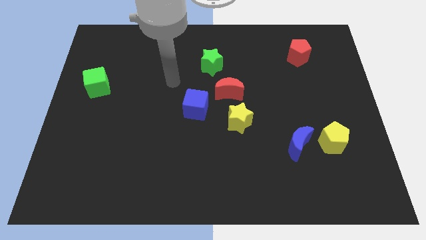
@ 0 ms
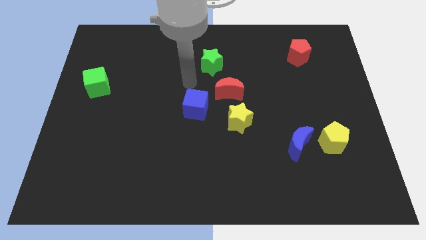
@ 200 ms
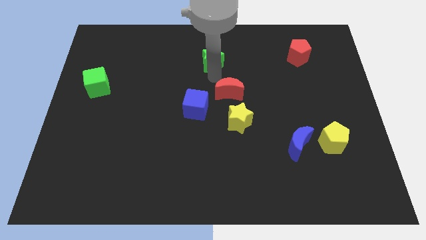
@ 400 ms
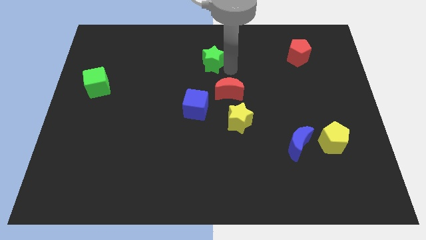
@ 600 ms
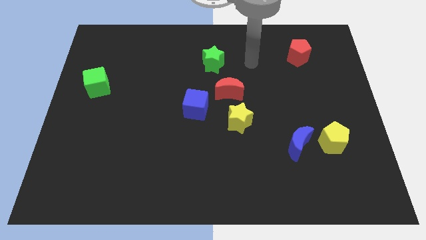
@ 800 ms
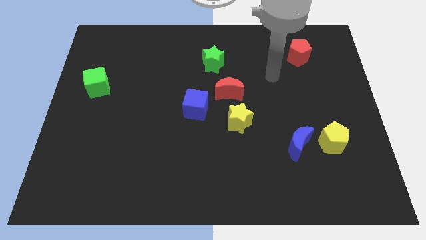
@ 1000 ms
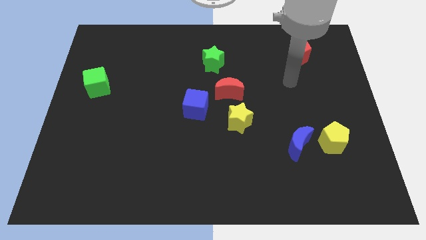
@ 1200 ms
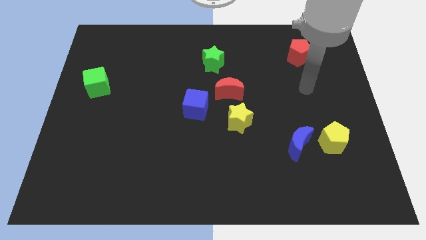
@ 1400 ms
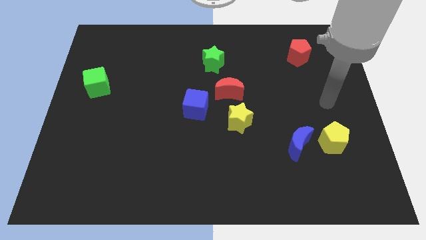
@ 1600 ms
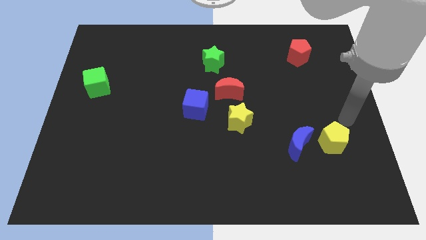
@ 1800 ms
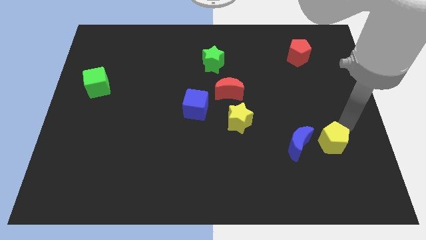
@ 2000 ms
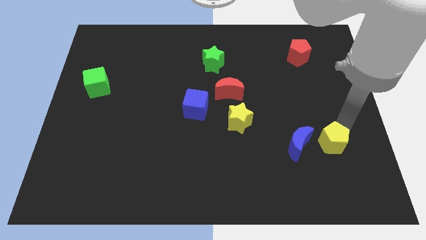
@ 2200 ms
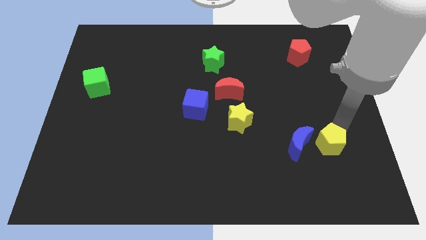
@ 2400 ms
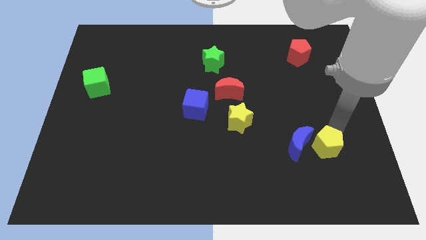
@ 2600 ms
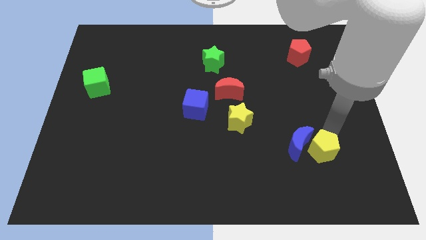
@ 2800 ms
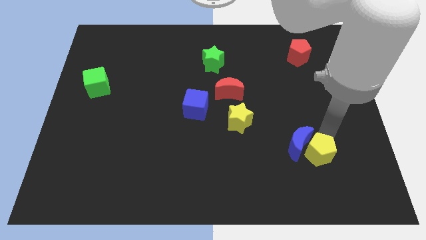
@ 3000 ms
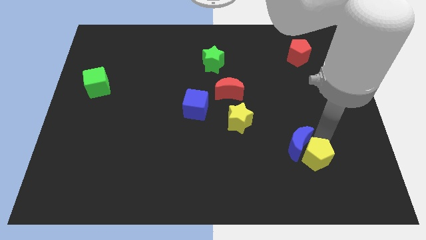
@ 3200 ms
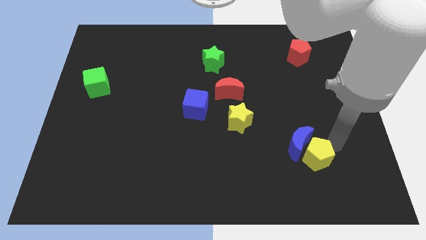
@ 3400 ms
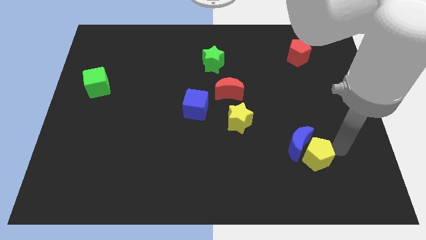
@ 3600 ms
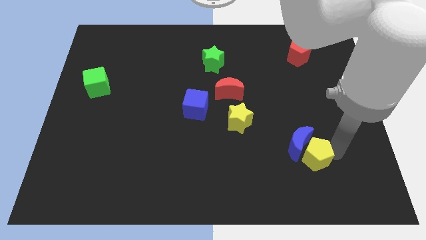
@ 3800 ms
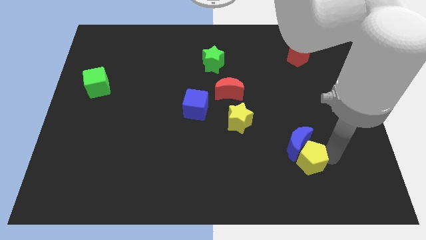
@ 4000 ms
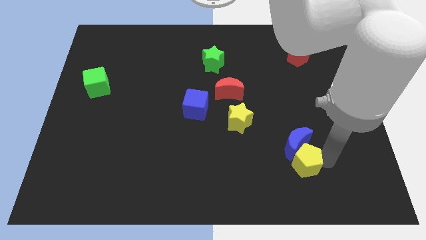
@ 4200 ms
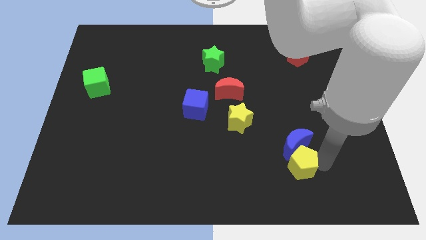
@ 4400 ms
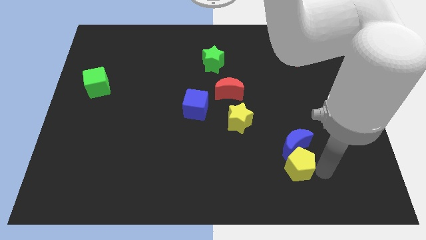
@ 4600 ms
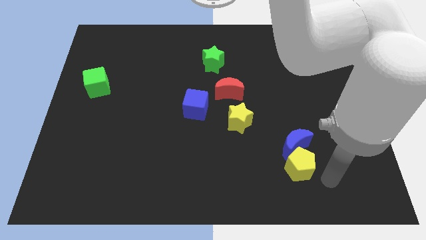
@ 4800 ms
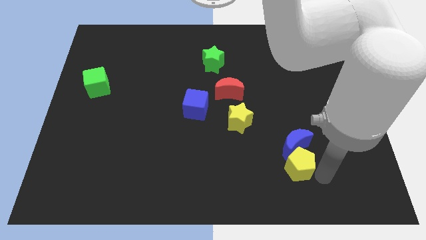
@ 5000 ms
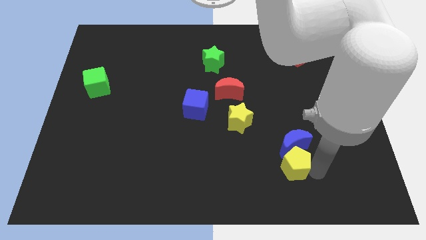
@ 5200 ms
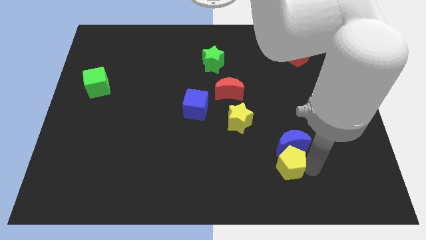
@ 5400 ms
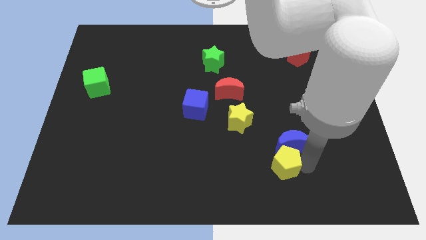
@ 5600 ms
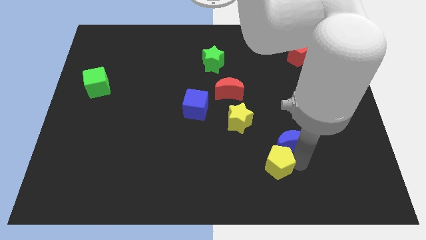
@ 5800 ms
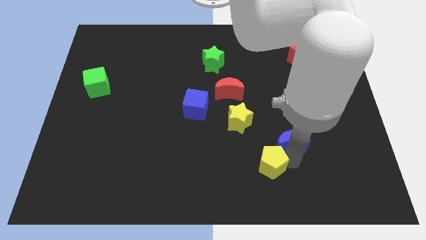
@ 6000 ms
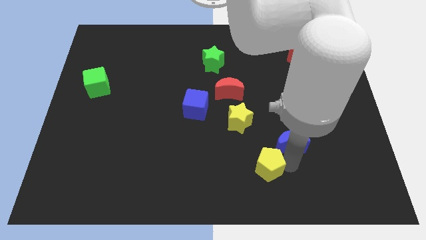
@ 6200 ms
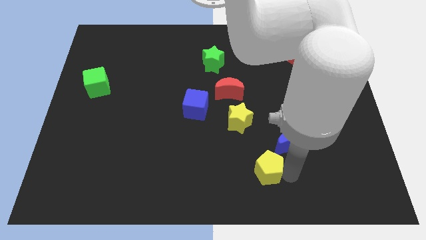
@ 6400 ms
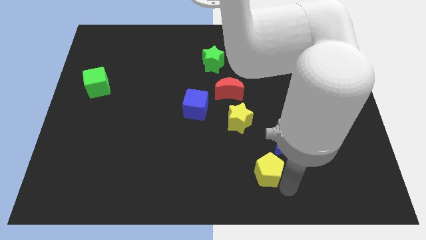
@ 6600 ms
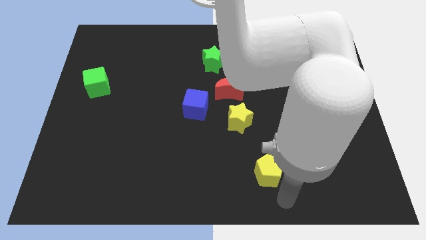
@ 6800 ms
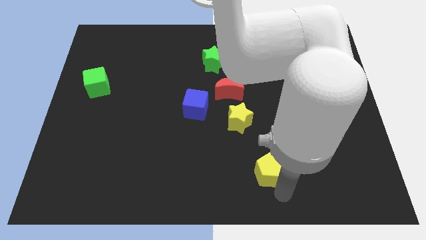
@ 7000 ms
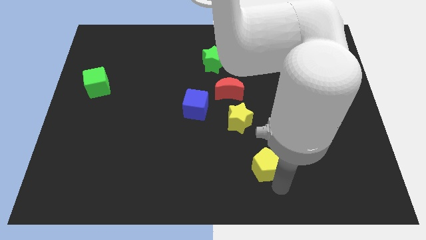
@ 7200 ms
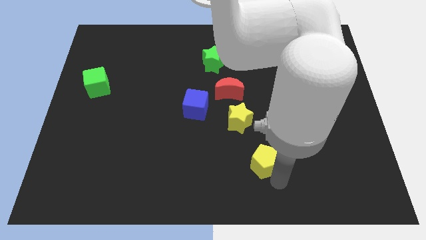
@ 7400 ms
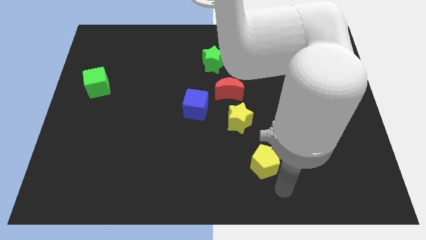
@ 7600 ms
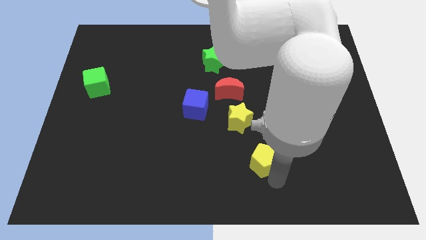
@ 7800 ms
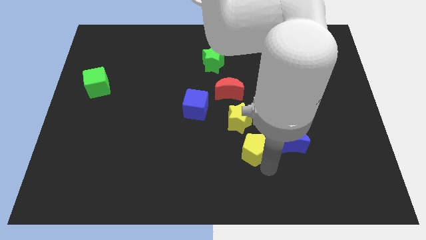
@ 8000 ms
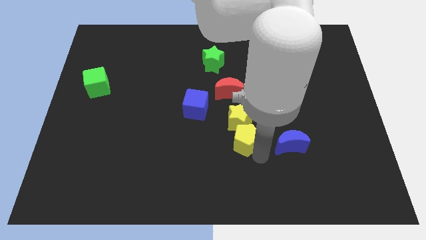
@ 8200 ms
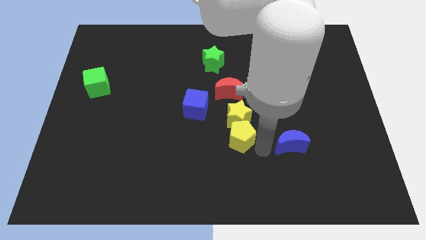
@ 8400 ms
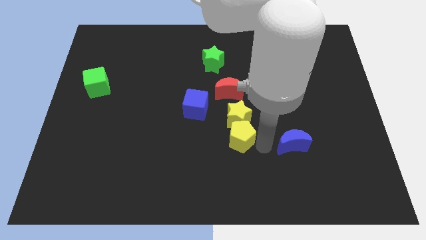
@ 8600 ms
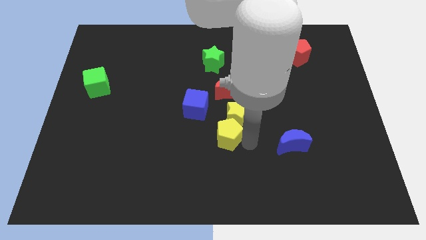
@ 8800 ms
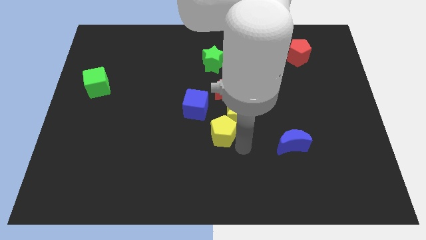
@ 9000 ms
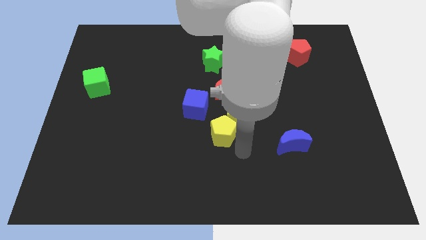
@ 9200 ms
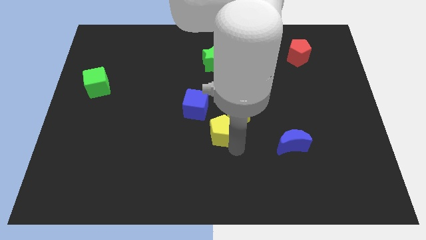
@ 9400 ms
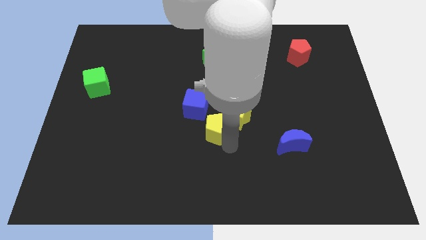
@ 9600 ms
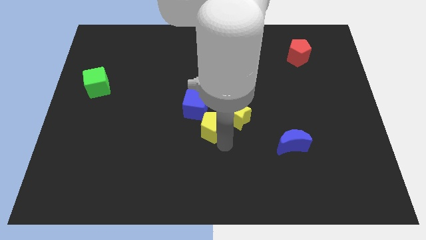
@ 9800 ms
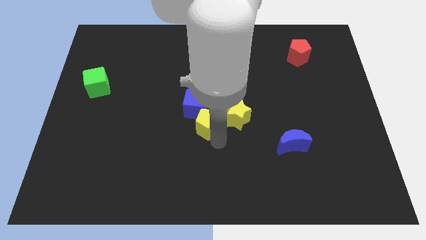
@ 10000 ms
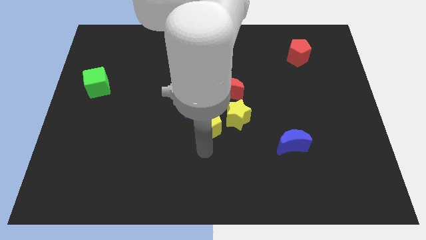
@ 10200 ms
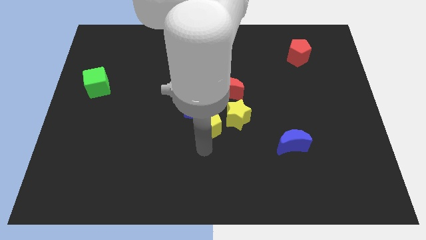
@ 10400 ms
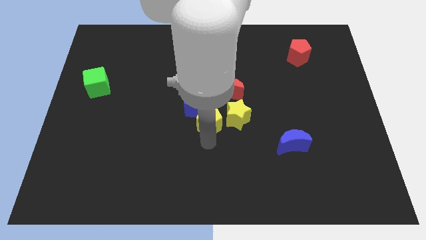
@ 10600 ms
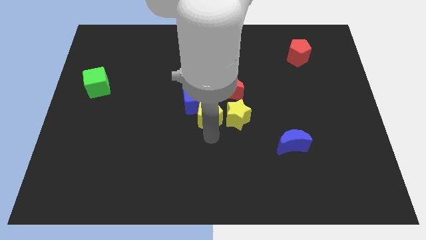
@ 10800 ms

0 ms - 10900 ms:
put the yellow pentagon to the top left side of the yellow star

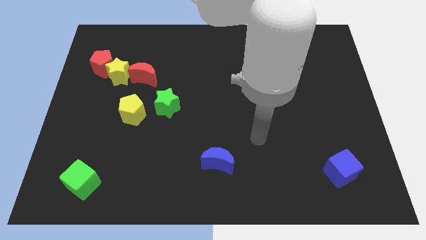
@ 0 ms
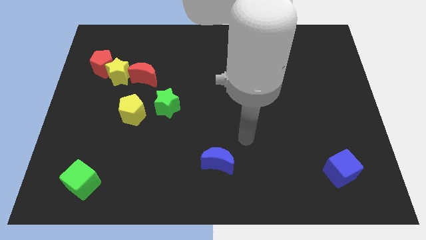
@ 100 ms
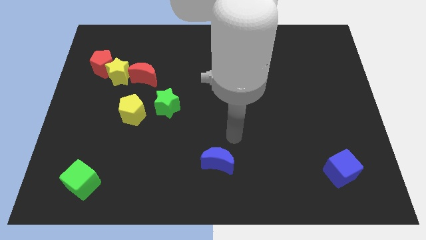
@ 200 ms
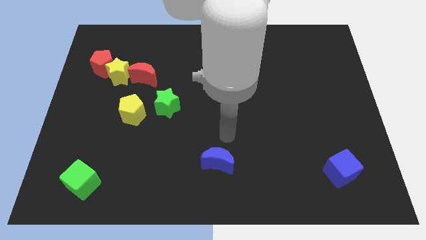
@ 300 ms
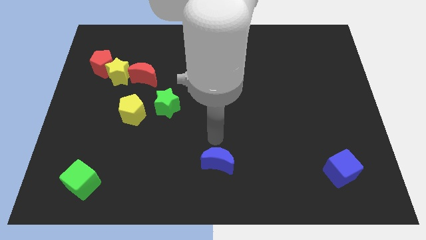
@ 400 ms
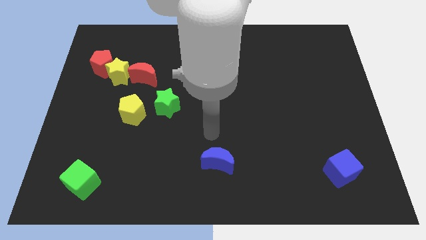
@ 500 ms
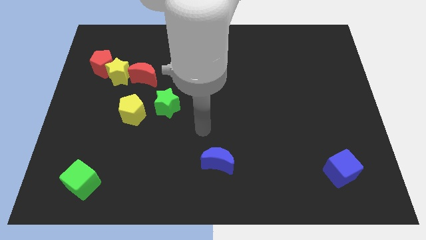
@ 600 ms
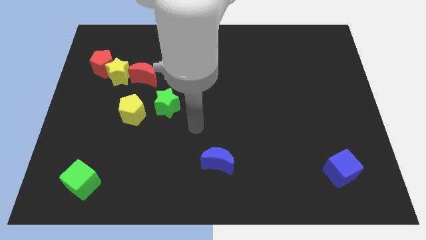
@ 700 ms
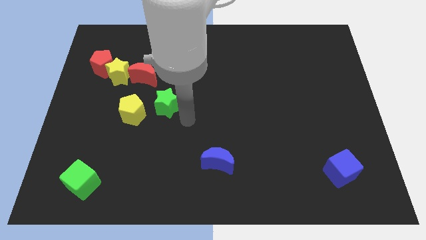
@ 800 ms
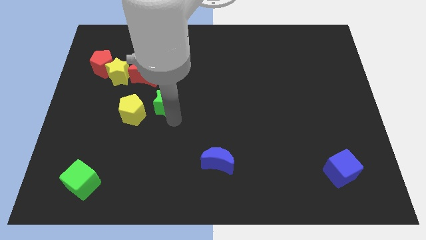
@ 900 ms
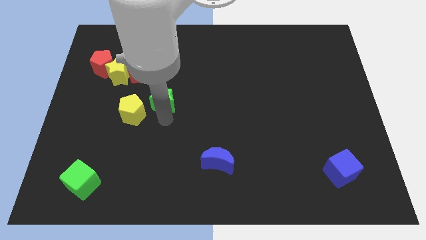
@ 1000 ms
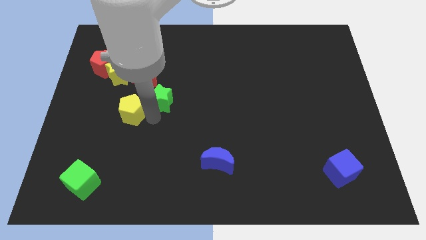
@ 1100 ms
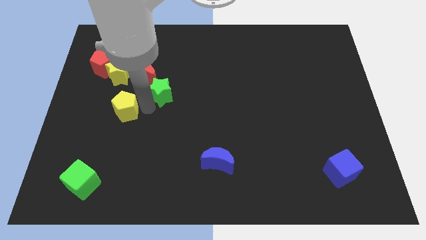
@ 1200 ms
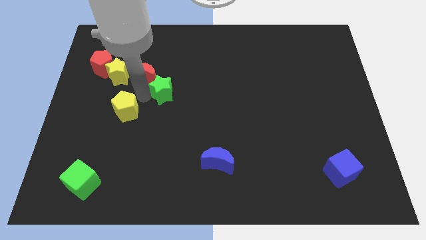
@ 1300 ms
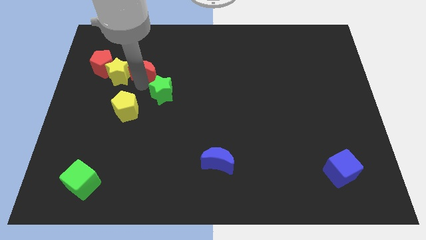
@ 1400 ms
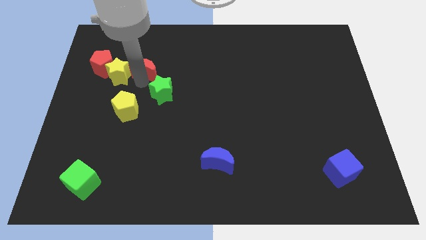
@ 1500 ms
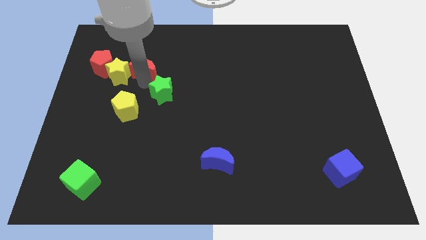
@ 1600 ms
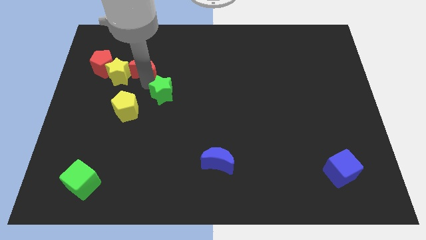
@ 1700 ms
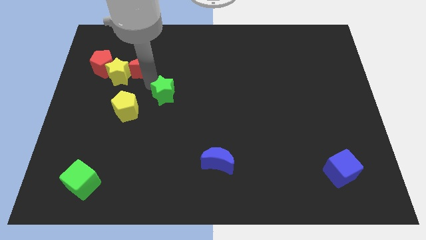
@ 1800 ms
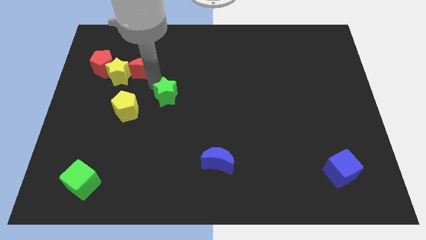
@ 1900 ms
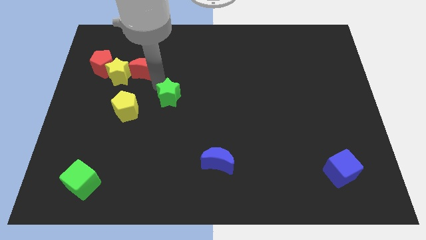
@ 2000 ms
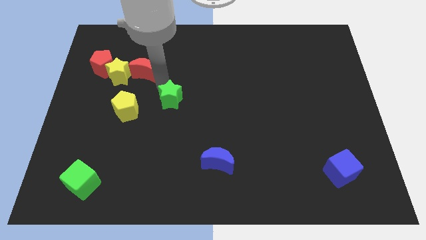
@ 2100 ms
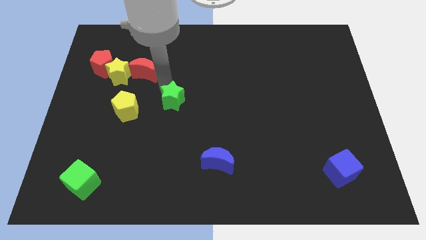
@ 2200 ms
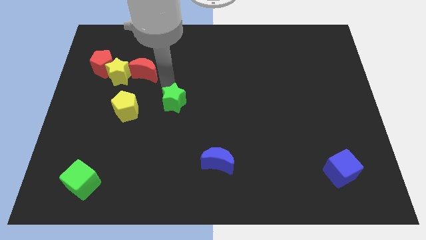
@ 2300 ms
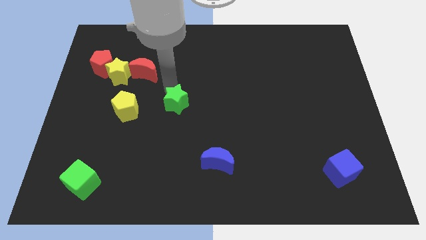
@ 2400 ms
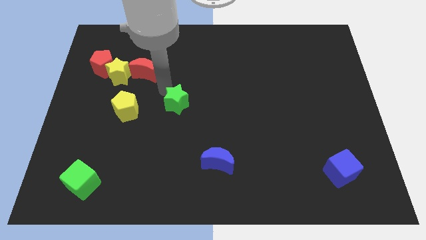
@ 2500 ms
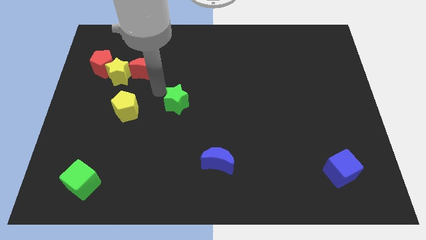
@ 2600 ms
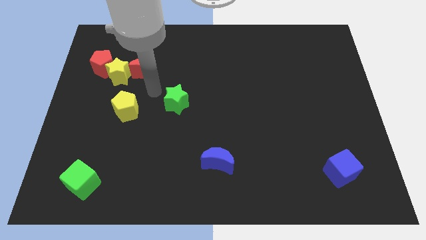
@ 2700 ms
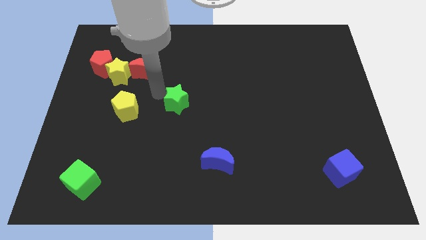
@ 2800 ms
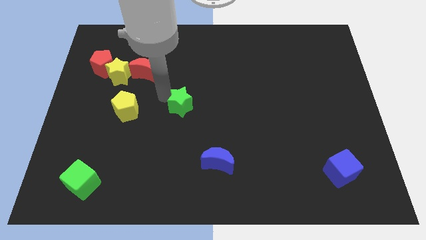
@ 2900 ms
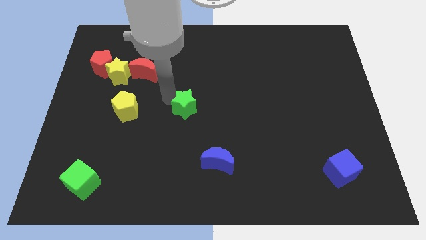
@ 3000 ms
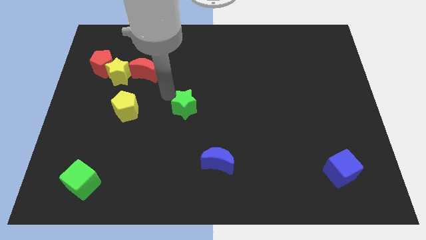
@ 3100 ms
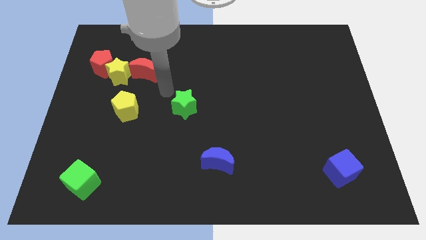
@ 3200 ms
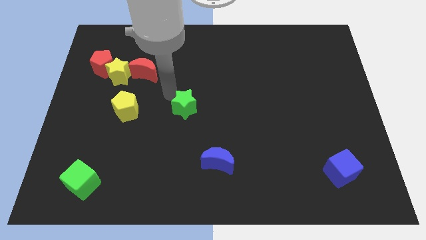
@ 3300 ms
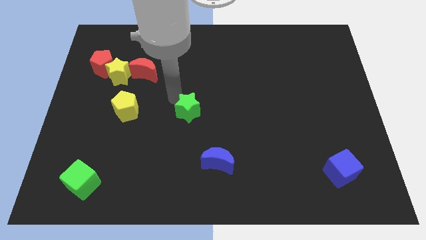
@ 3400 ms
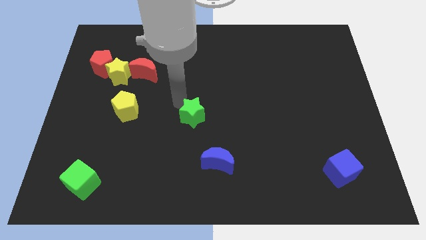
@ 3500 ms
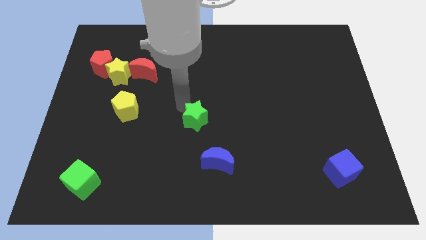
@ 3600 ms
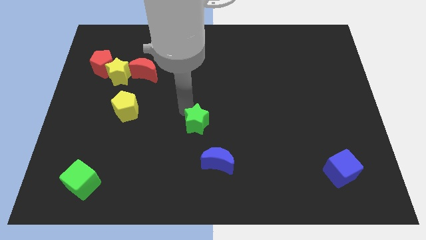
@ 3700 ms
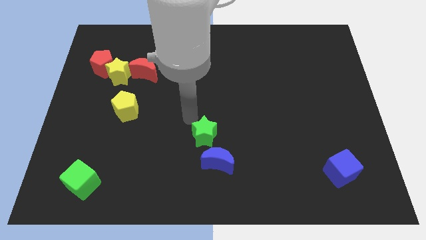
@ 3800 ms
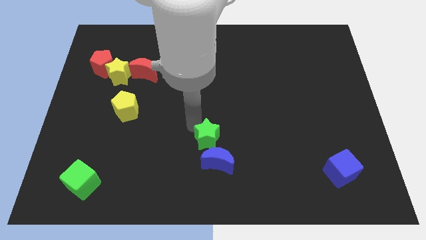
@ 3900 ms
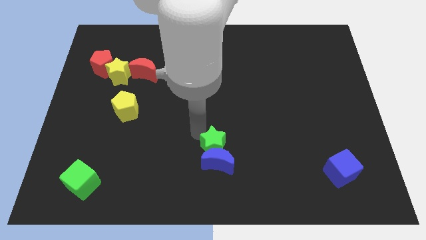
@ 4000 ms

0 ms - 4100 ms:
slide the green star to the top right side of the blue moon
